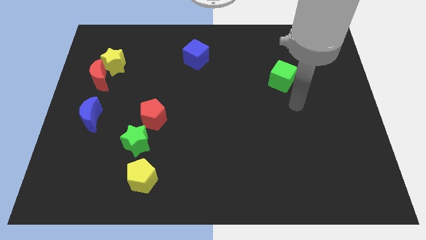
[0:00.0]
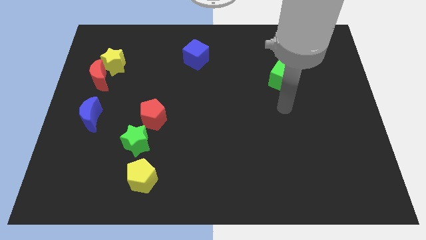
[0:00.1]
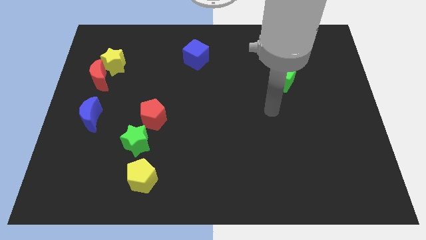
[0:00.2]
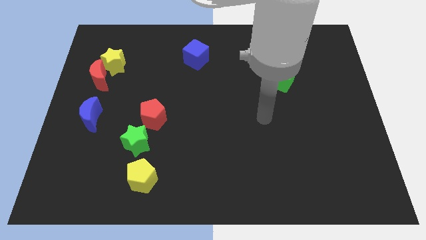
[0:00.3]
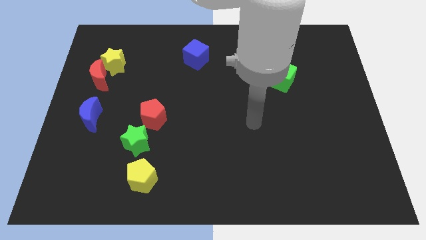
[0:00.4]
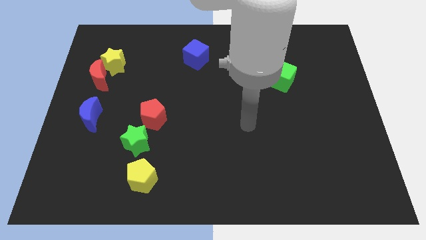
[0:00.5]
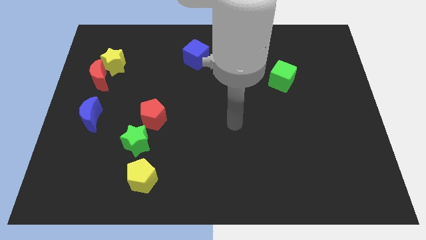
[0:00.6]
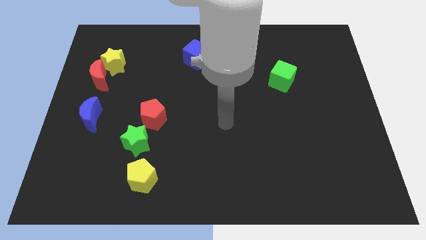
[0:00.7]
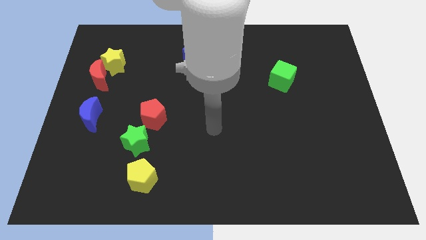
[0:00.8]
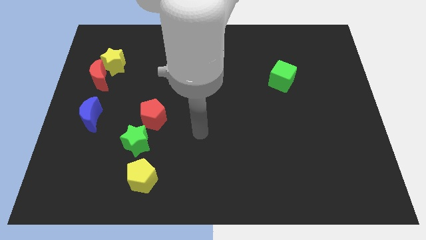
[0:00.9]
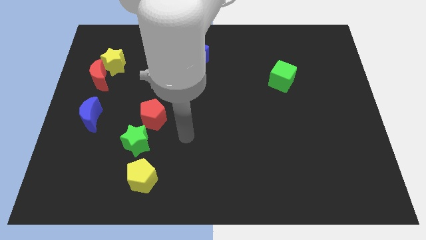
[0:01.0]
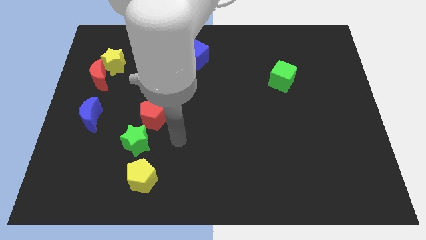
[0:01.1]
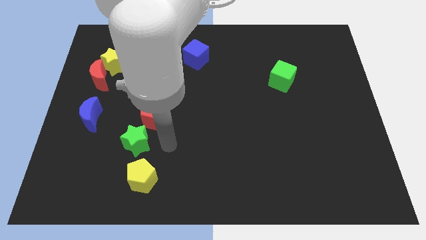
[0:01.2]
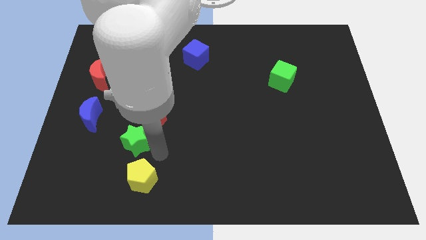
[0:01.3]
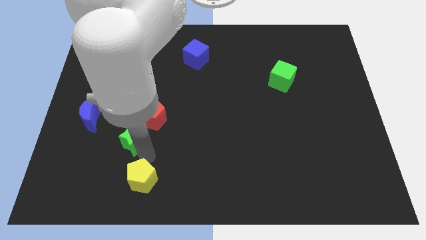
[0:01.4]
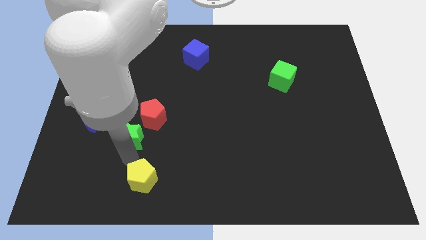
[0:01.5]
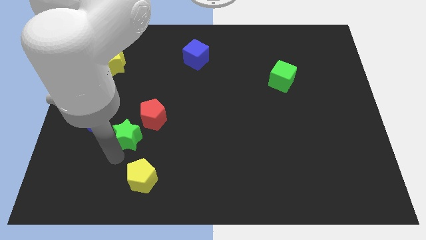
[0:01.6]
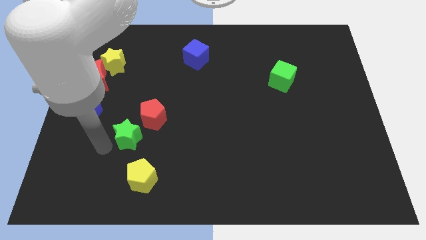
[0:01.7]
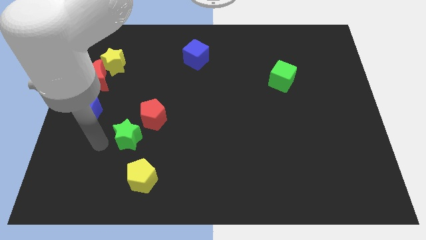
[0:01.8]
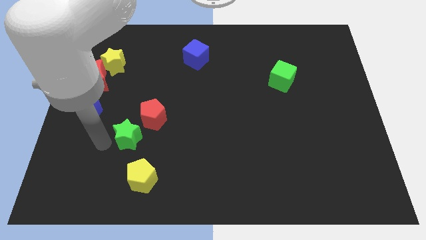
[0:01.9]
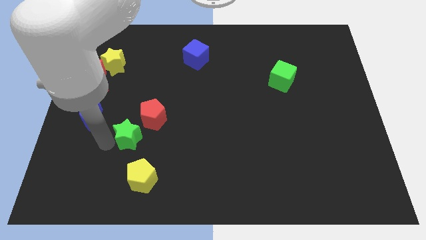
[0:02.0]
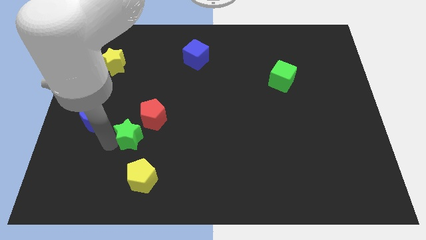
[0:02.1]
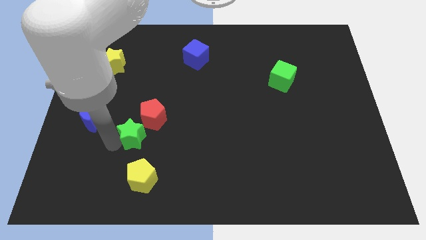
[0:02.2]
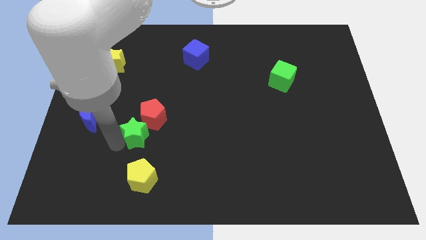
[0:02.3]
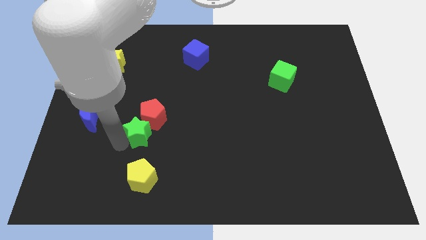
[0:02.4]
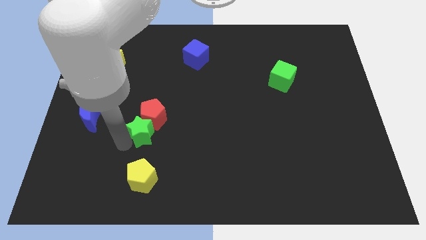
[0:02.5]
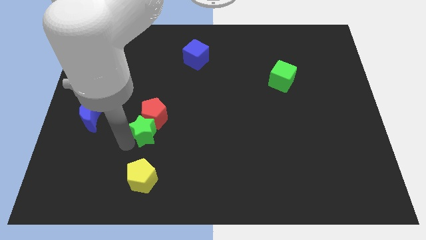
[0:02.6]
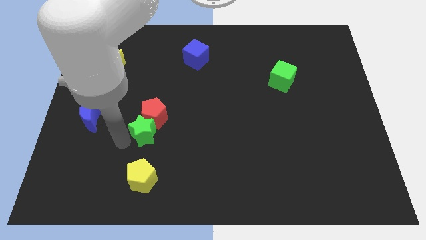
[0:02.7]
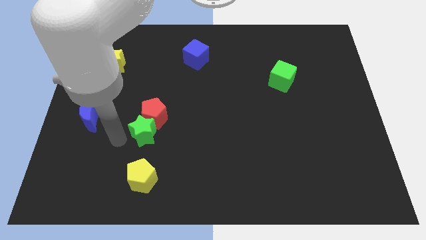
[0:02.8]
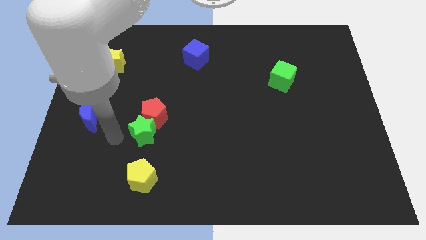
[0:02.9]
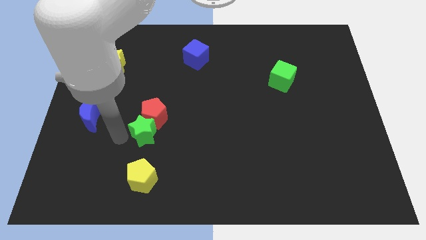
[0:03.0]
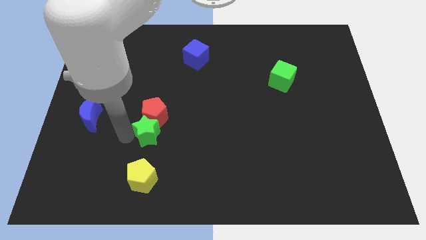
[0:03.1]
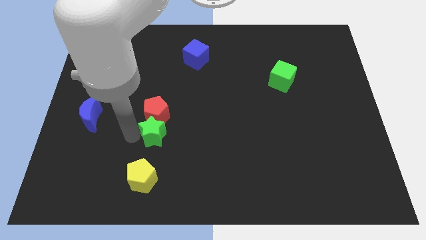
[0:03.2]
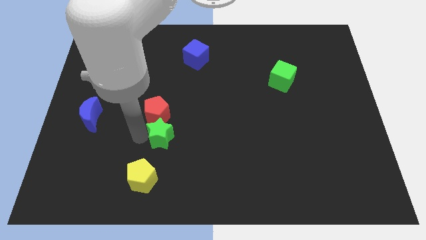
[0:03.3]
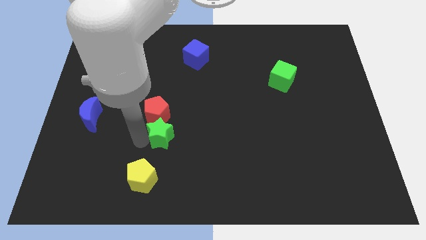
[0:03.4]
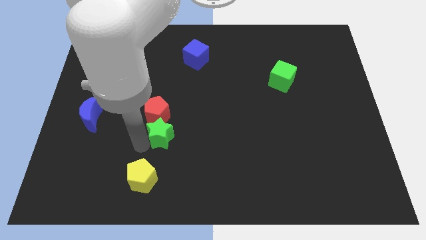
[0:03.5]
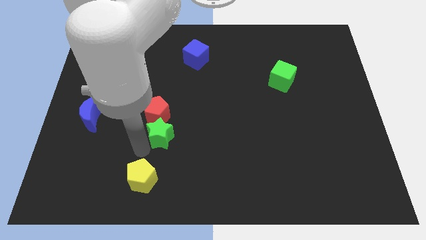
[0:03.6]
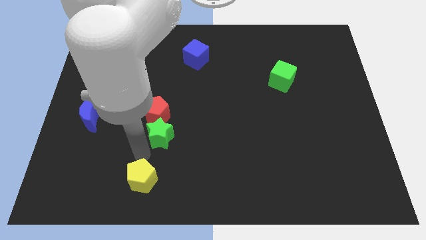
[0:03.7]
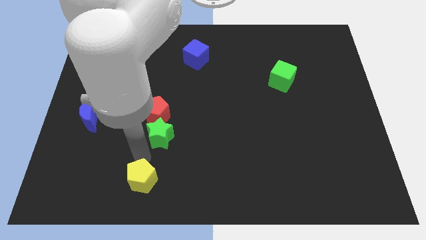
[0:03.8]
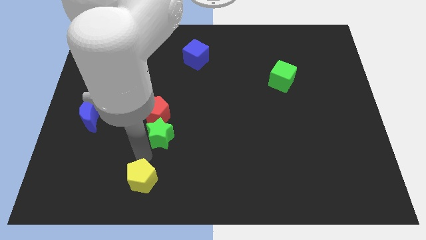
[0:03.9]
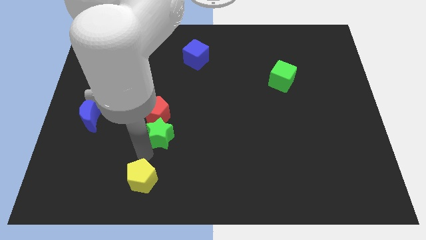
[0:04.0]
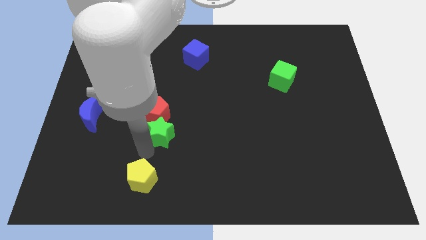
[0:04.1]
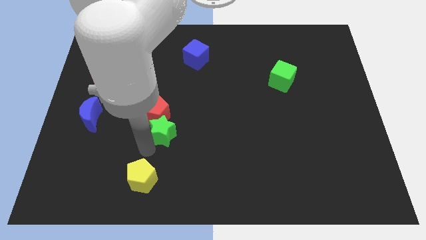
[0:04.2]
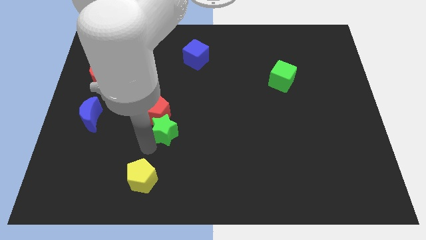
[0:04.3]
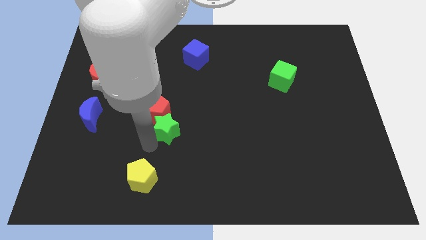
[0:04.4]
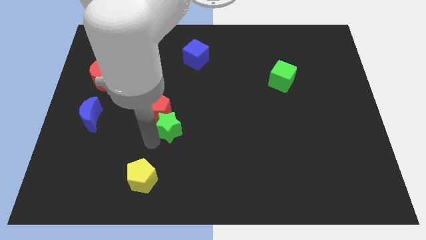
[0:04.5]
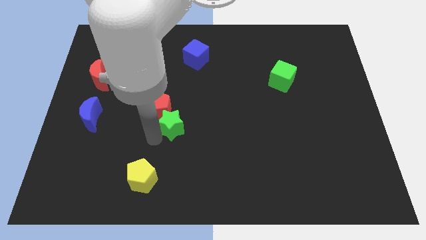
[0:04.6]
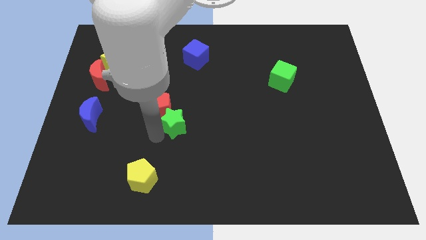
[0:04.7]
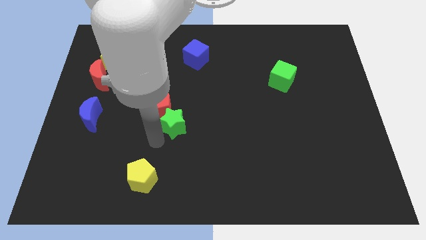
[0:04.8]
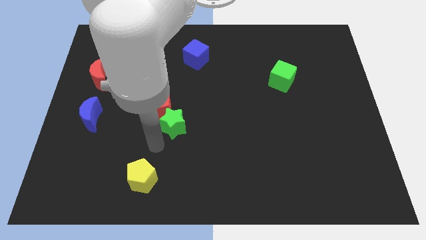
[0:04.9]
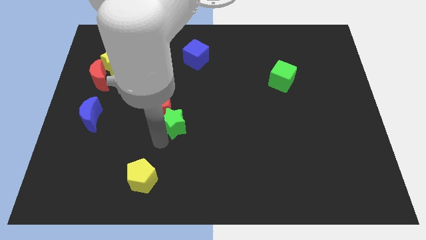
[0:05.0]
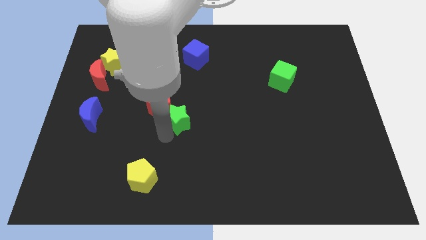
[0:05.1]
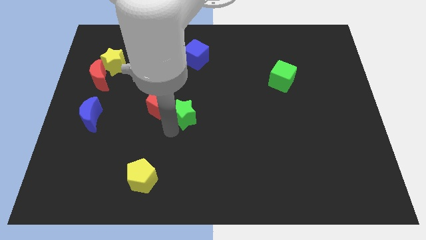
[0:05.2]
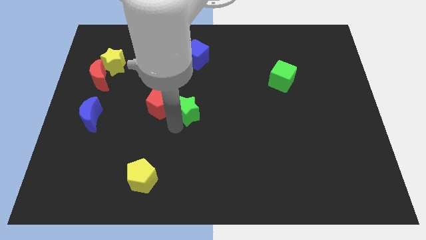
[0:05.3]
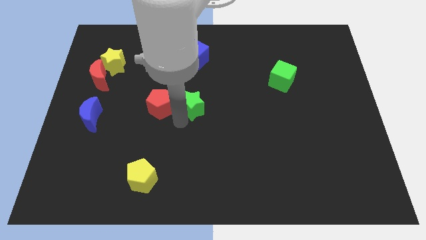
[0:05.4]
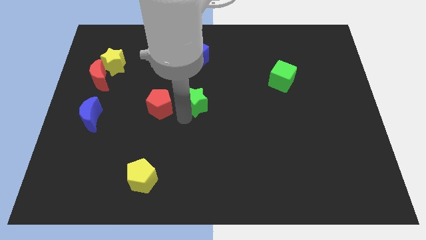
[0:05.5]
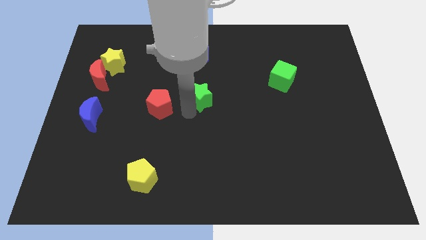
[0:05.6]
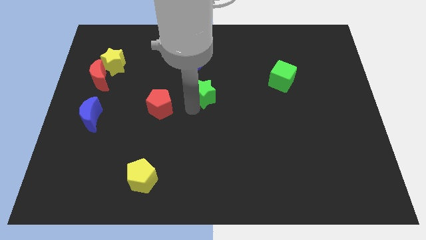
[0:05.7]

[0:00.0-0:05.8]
move the green star up and right diagonally

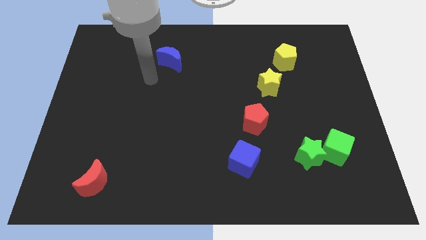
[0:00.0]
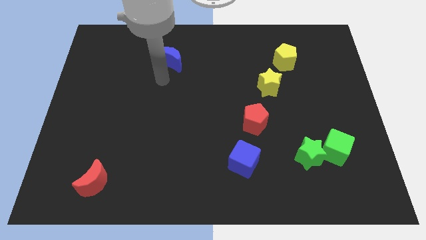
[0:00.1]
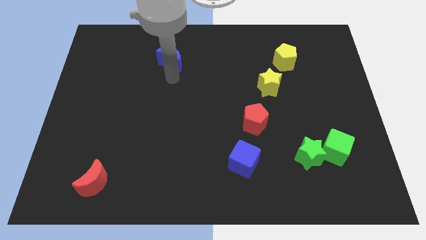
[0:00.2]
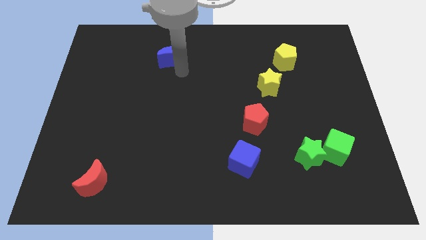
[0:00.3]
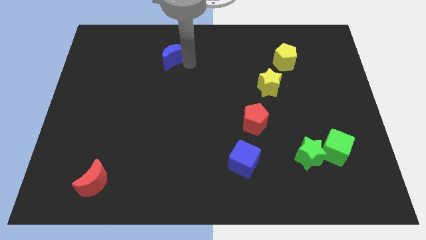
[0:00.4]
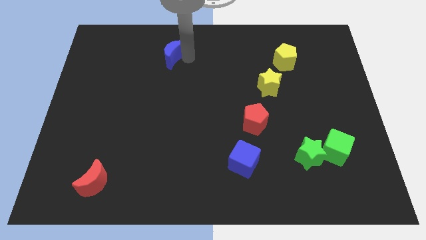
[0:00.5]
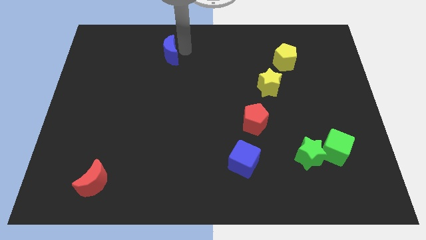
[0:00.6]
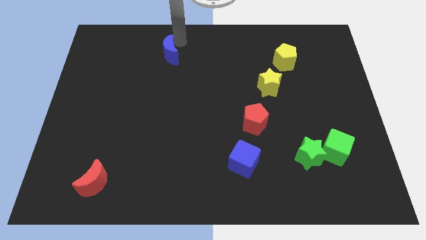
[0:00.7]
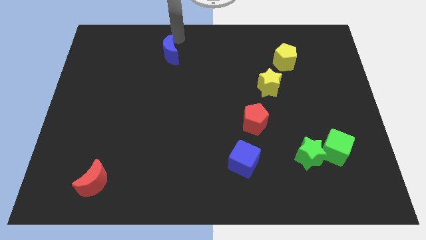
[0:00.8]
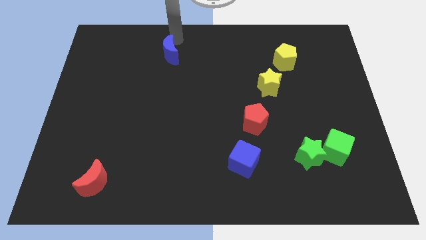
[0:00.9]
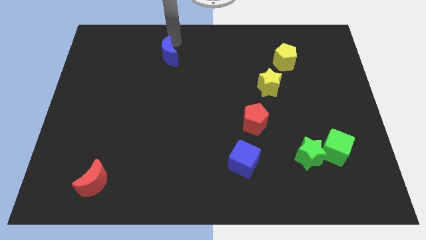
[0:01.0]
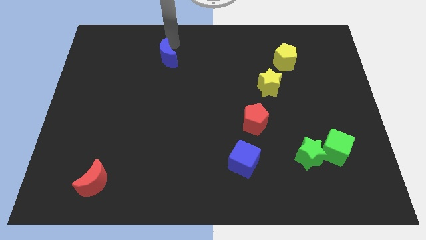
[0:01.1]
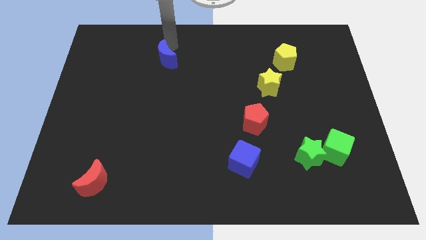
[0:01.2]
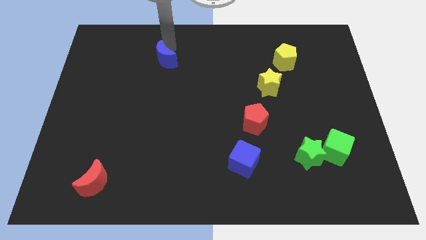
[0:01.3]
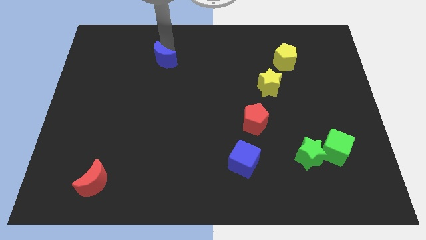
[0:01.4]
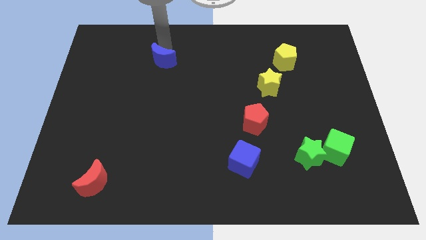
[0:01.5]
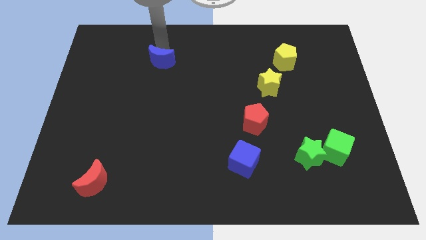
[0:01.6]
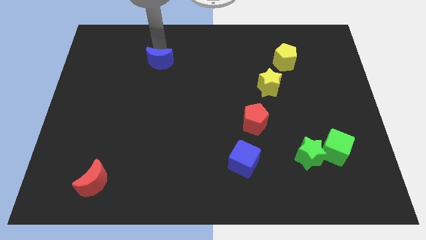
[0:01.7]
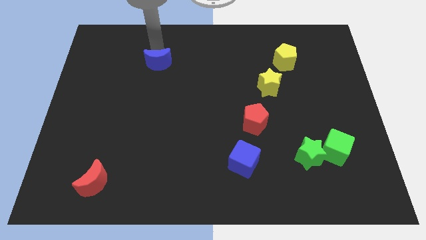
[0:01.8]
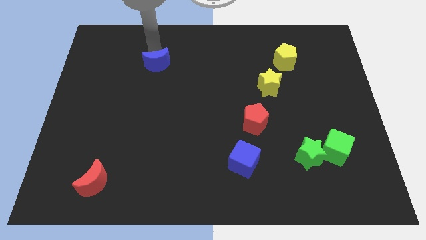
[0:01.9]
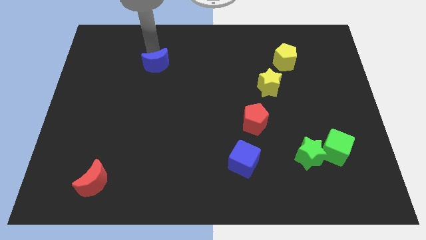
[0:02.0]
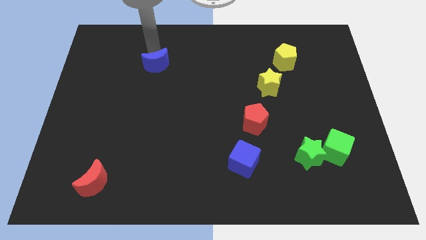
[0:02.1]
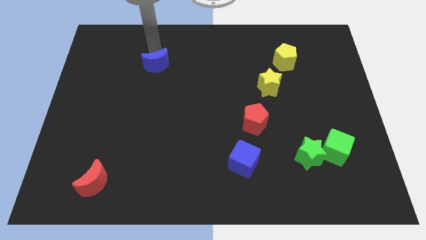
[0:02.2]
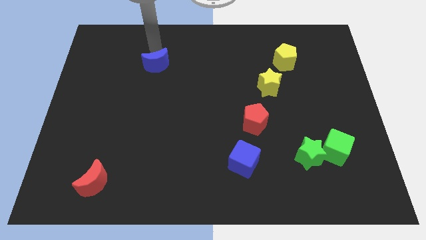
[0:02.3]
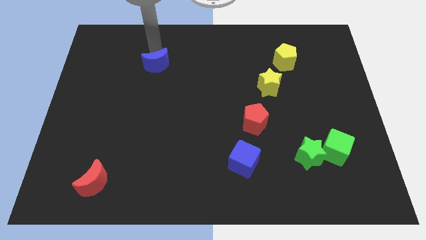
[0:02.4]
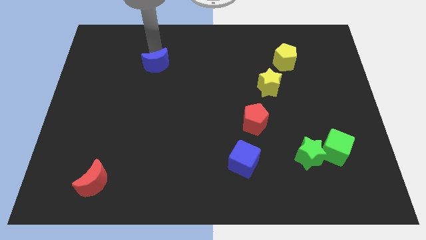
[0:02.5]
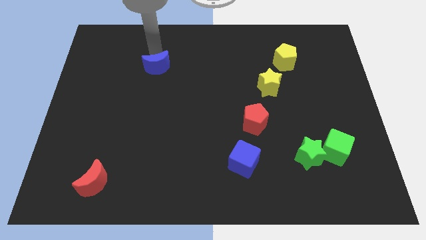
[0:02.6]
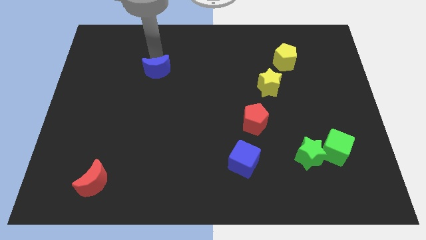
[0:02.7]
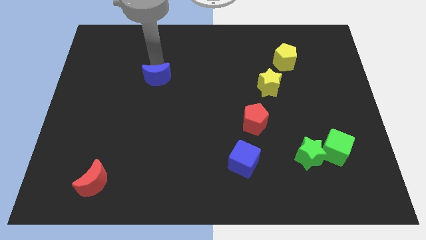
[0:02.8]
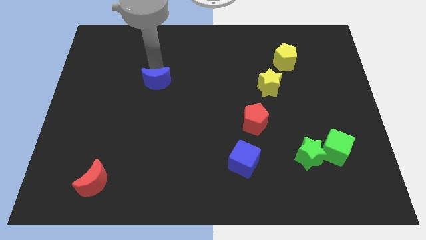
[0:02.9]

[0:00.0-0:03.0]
slide the blue moon downwards somewhat
